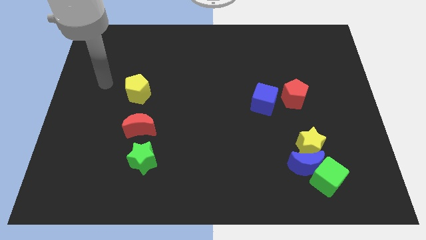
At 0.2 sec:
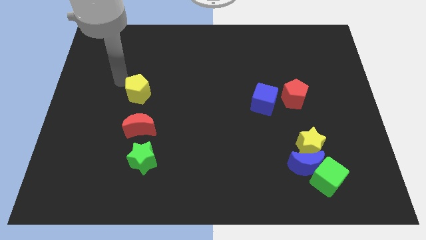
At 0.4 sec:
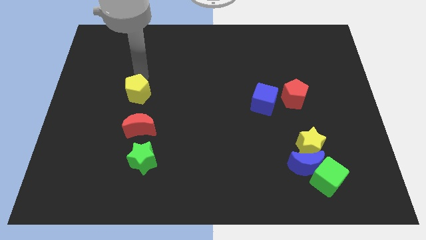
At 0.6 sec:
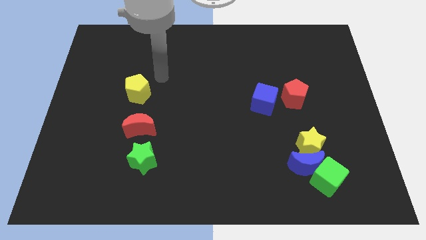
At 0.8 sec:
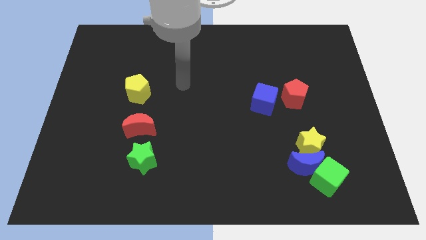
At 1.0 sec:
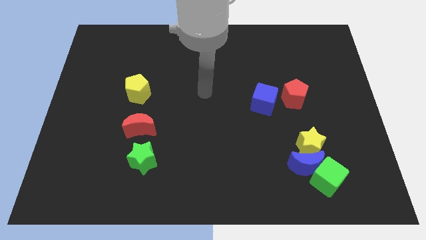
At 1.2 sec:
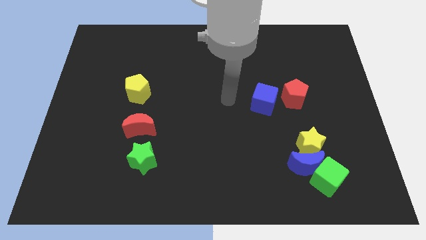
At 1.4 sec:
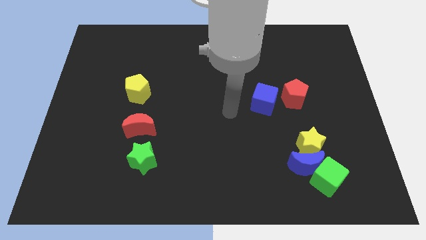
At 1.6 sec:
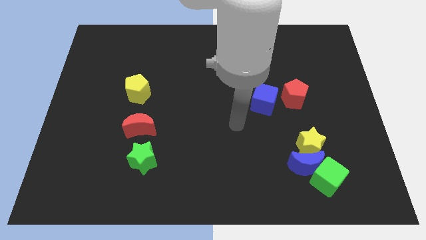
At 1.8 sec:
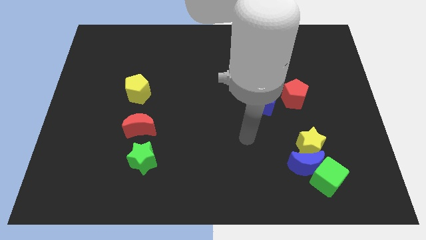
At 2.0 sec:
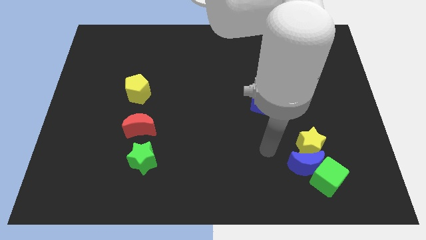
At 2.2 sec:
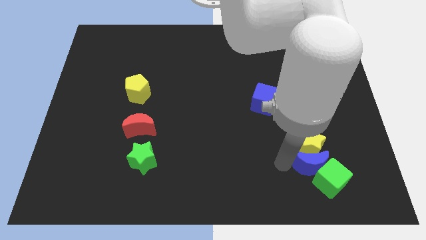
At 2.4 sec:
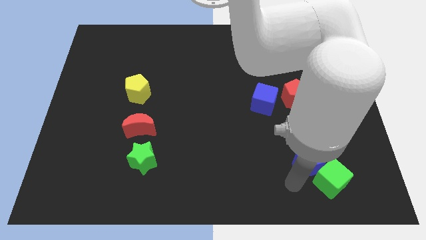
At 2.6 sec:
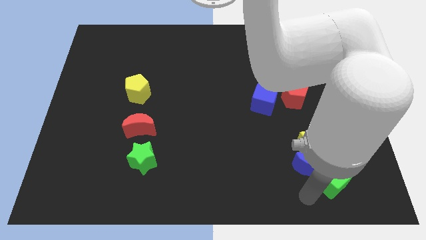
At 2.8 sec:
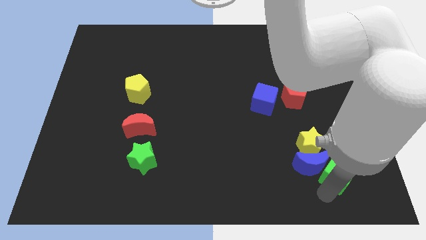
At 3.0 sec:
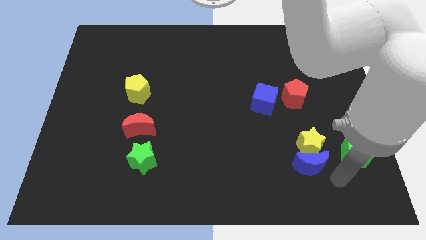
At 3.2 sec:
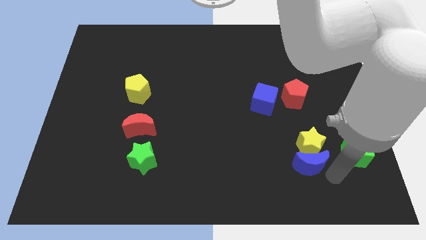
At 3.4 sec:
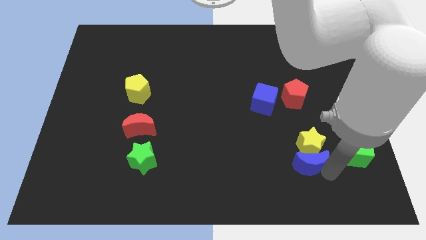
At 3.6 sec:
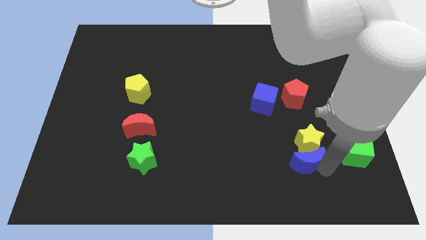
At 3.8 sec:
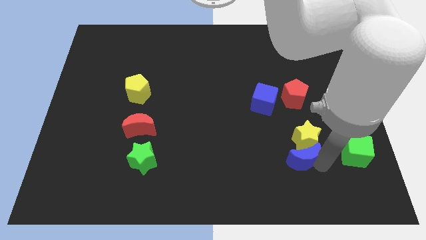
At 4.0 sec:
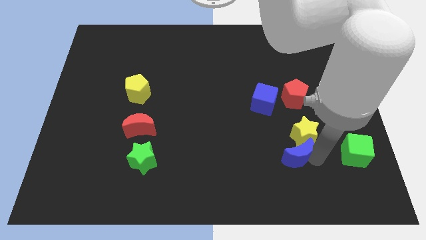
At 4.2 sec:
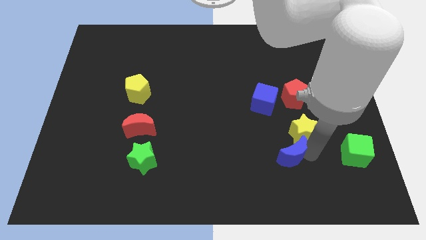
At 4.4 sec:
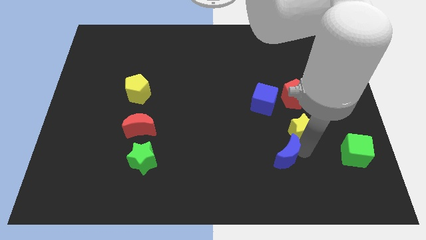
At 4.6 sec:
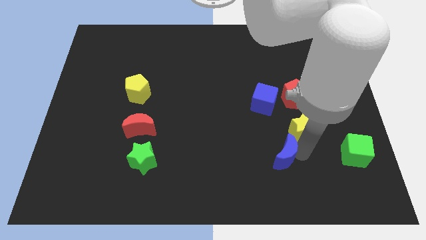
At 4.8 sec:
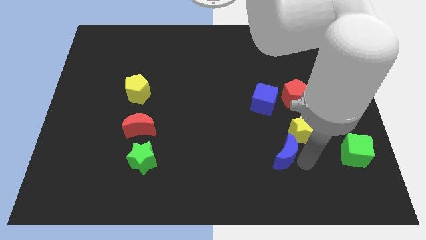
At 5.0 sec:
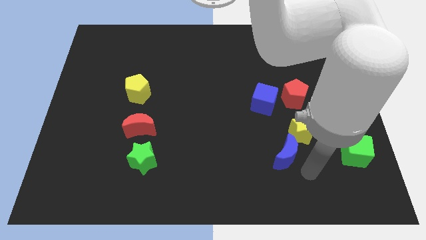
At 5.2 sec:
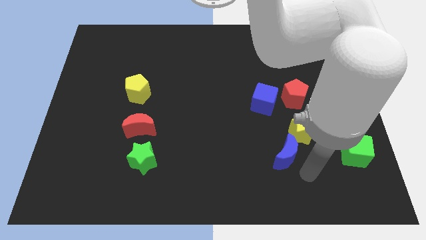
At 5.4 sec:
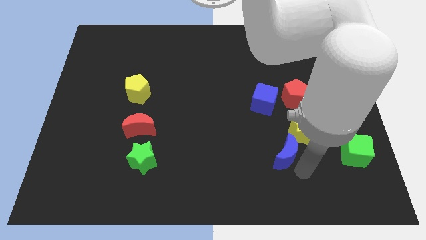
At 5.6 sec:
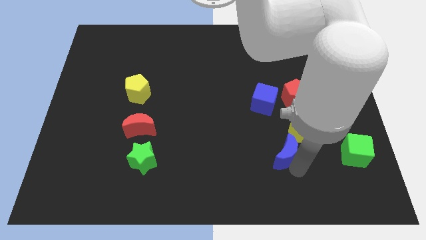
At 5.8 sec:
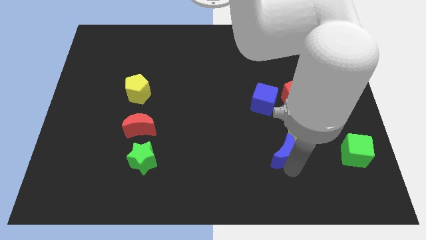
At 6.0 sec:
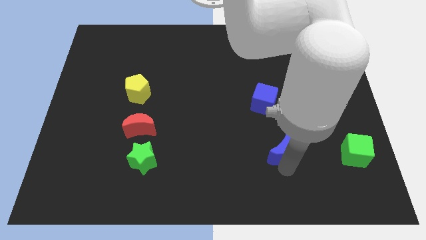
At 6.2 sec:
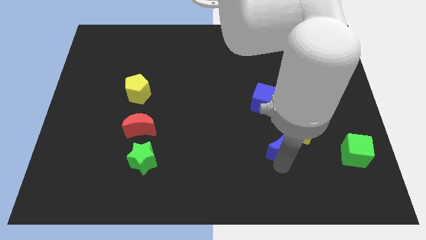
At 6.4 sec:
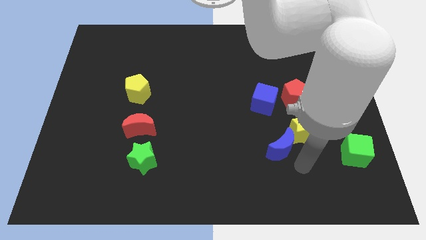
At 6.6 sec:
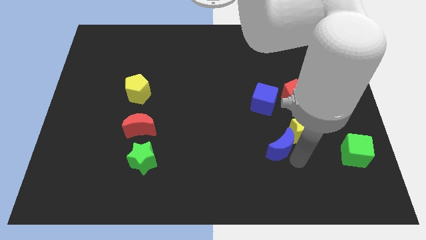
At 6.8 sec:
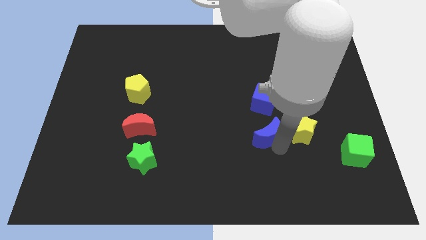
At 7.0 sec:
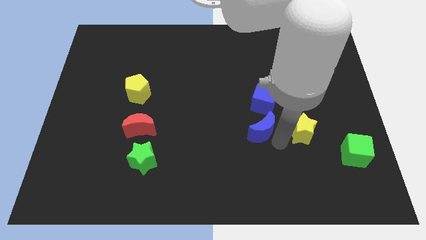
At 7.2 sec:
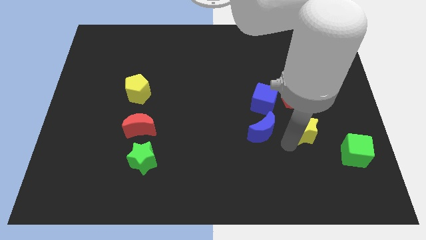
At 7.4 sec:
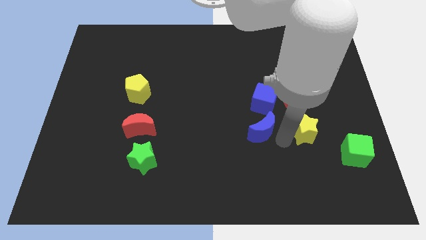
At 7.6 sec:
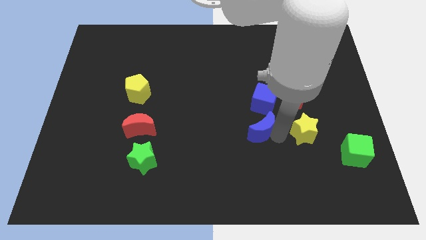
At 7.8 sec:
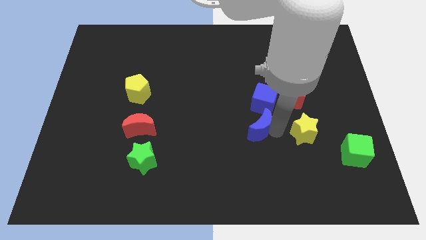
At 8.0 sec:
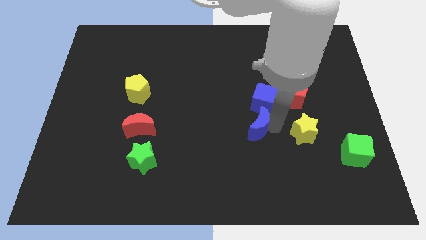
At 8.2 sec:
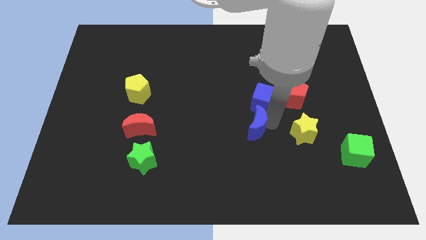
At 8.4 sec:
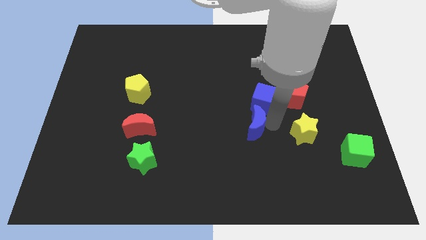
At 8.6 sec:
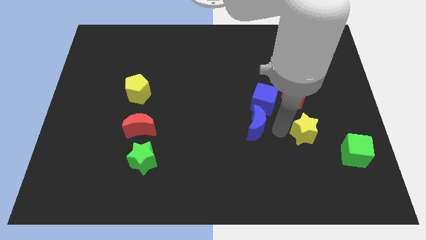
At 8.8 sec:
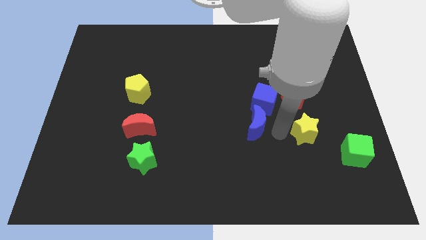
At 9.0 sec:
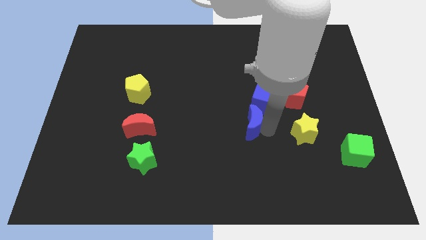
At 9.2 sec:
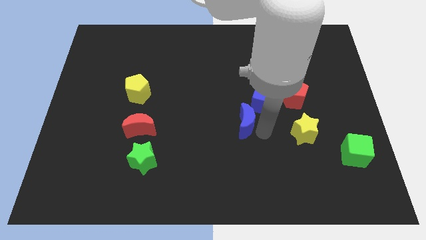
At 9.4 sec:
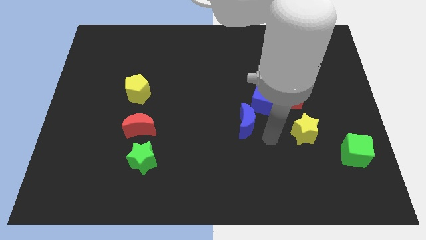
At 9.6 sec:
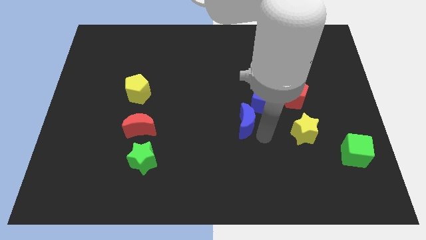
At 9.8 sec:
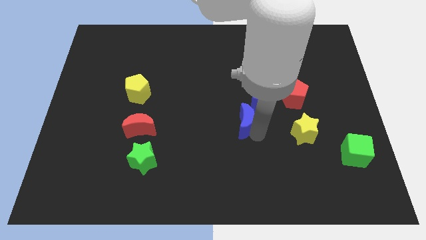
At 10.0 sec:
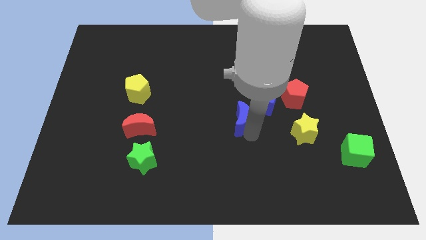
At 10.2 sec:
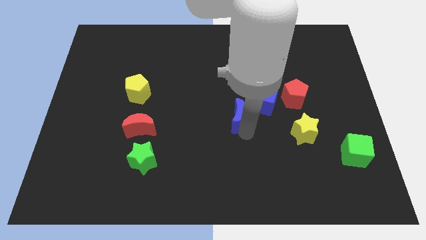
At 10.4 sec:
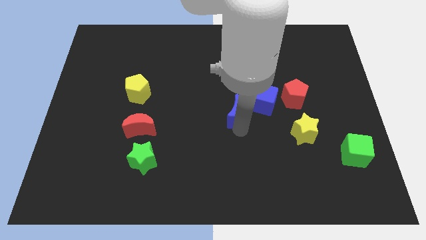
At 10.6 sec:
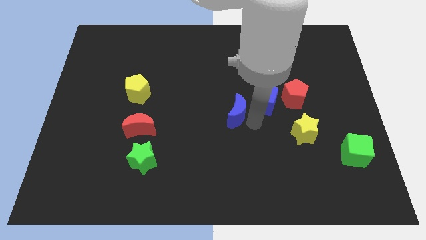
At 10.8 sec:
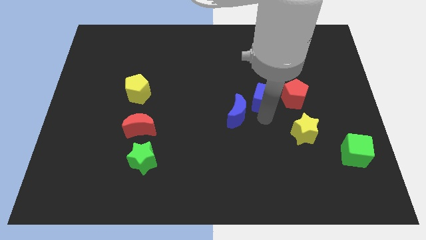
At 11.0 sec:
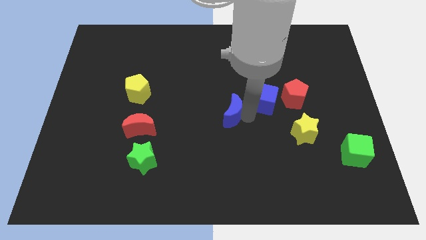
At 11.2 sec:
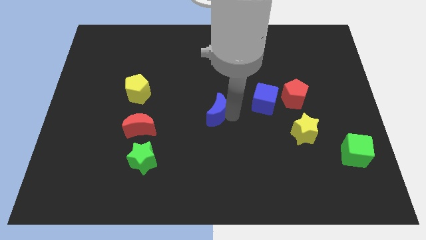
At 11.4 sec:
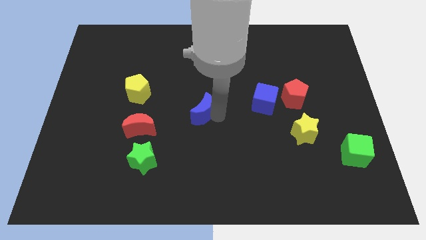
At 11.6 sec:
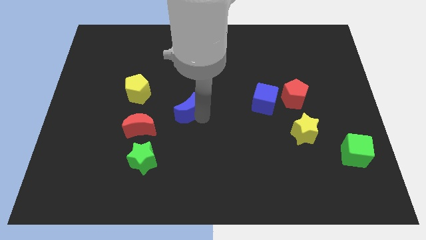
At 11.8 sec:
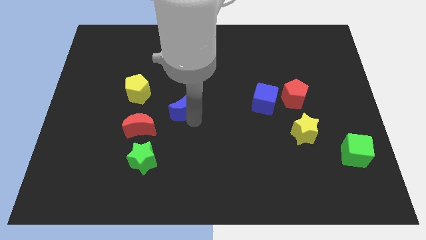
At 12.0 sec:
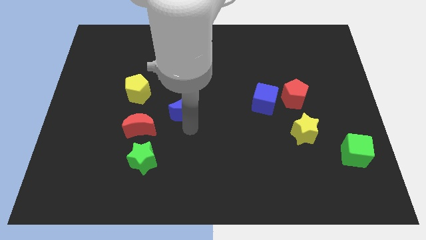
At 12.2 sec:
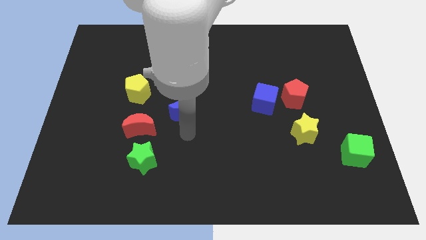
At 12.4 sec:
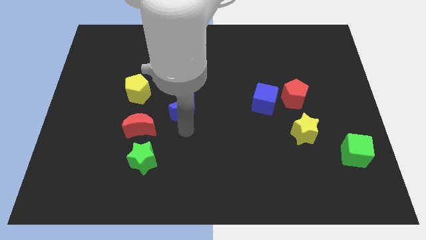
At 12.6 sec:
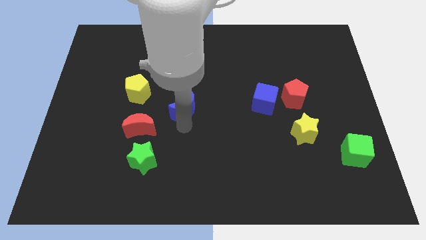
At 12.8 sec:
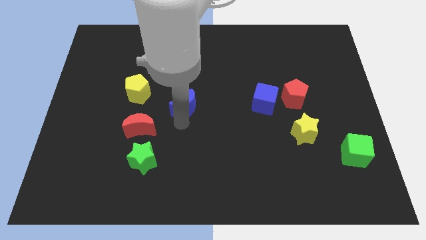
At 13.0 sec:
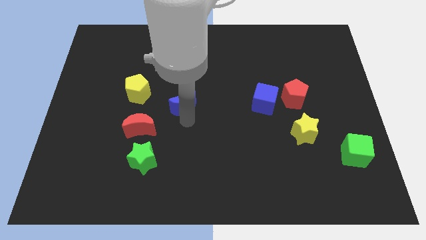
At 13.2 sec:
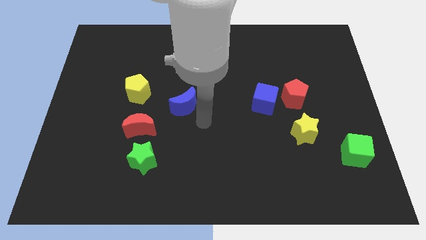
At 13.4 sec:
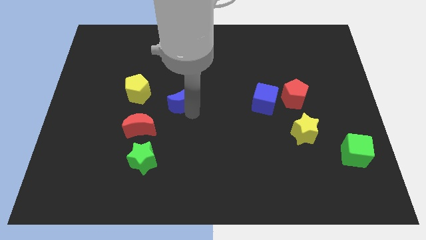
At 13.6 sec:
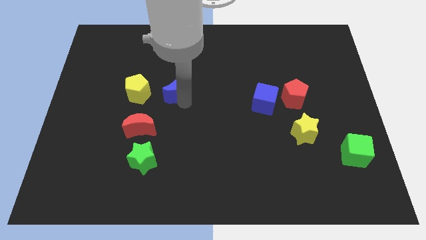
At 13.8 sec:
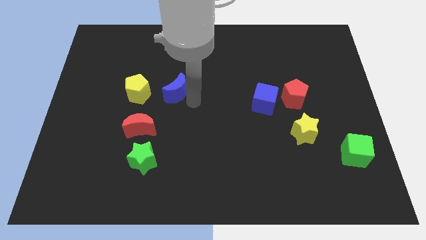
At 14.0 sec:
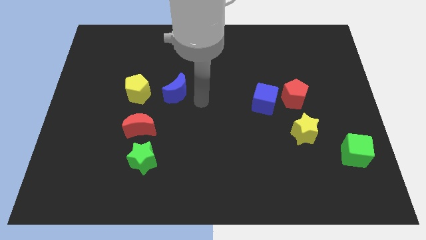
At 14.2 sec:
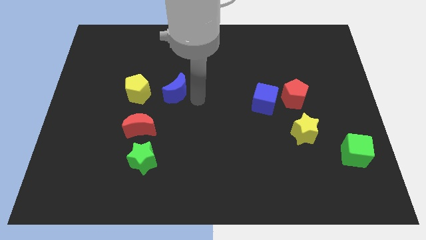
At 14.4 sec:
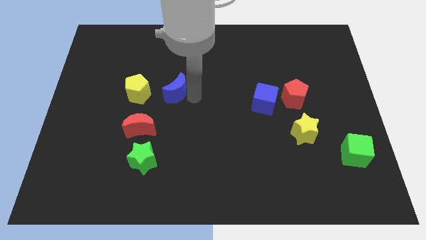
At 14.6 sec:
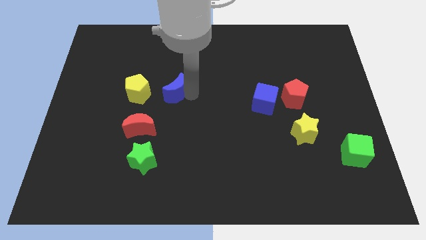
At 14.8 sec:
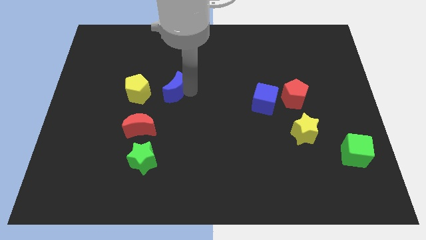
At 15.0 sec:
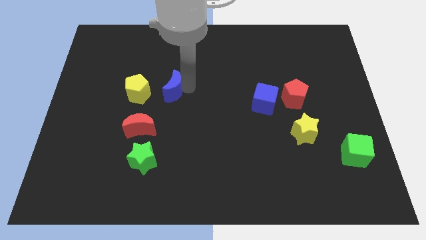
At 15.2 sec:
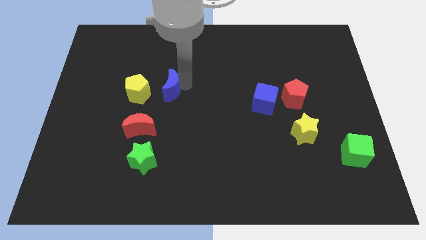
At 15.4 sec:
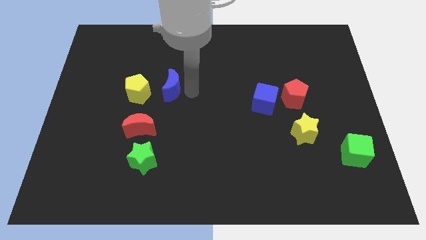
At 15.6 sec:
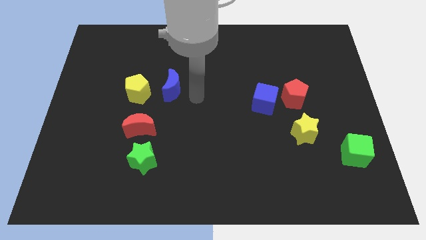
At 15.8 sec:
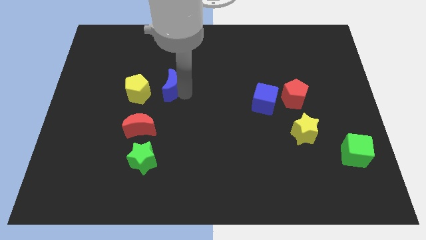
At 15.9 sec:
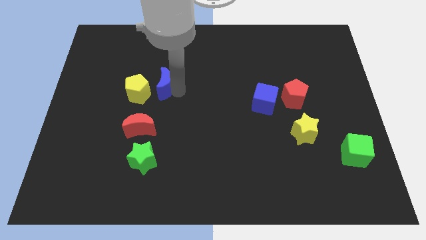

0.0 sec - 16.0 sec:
put the blue moon above the red moon

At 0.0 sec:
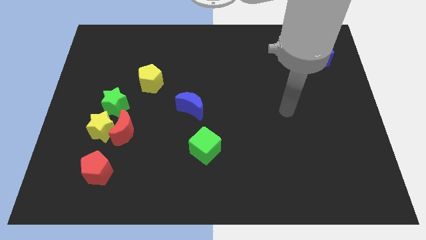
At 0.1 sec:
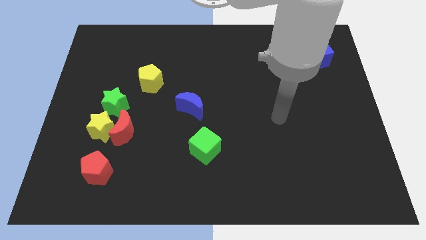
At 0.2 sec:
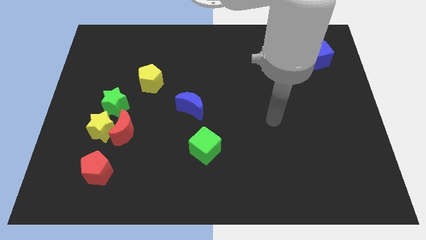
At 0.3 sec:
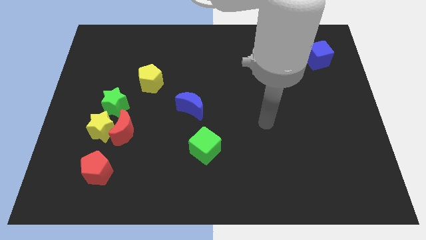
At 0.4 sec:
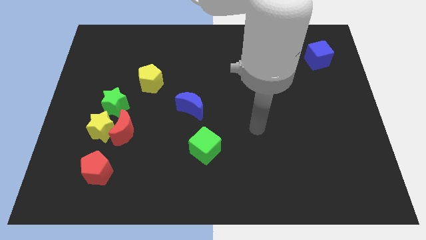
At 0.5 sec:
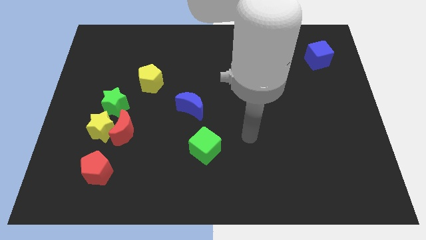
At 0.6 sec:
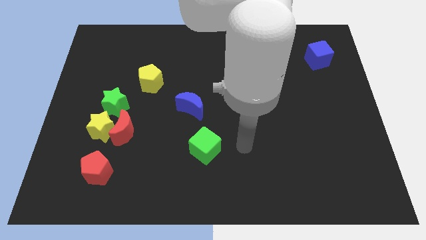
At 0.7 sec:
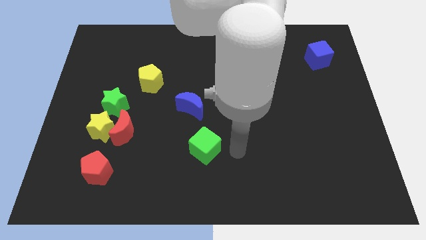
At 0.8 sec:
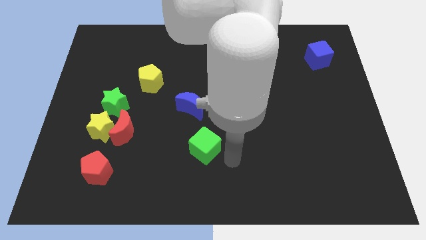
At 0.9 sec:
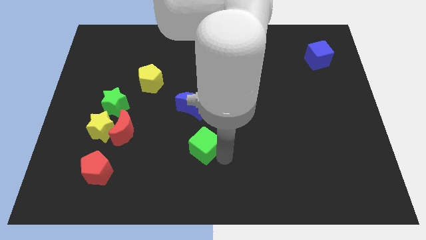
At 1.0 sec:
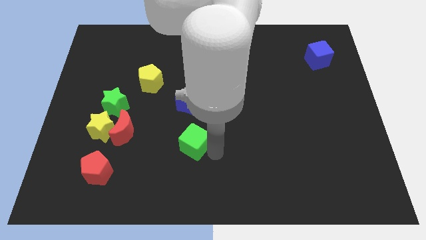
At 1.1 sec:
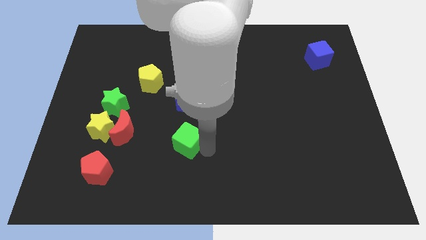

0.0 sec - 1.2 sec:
move the green cube to the right of the red moon
